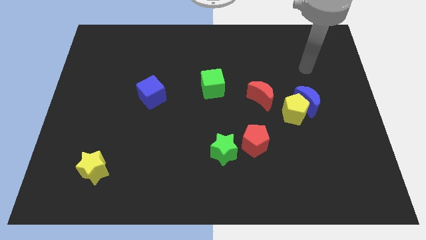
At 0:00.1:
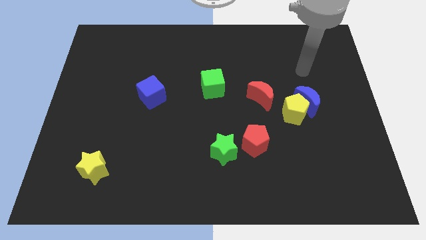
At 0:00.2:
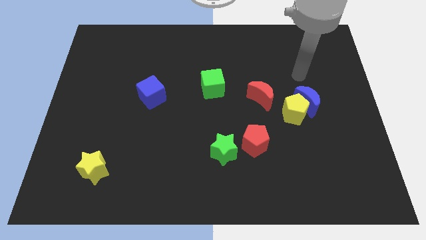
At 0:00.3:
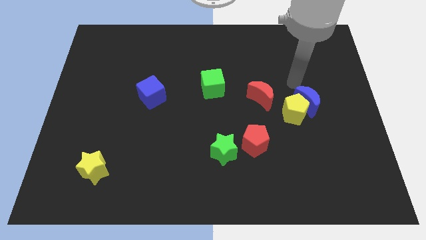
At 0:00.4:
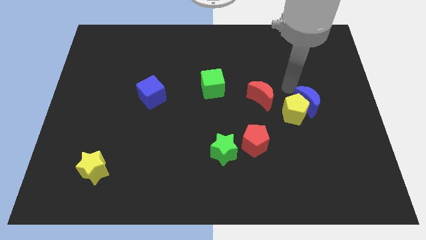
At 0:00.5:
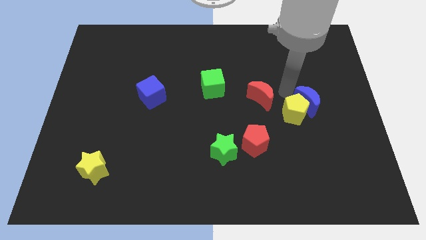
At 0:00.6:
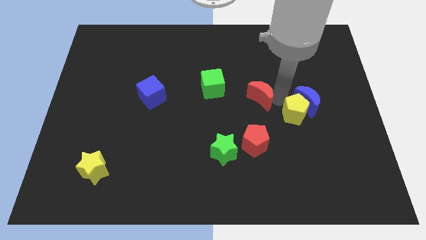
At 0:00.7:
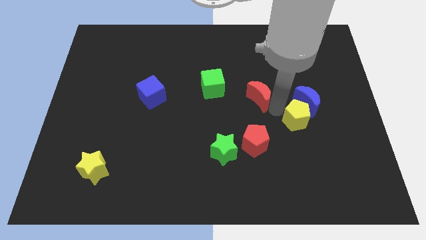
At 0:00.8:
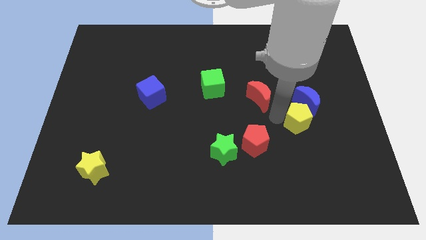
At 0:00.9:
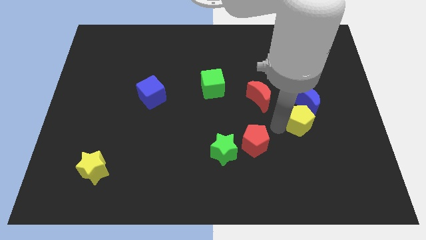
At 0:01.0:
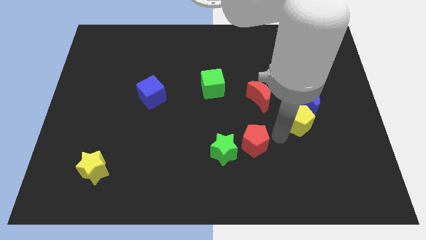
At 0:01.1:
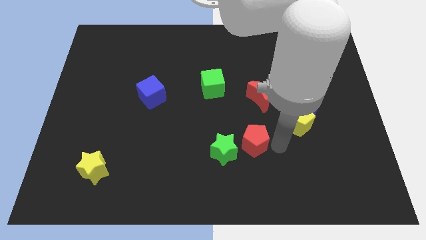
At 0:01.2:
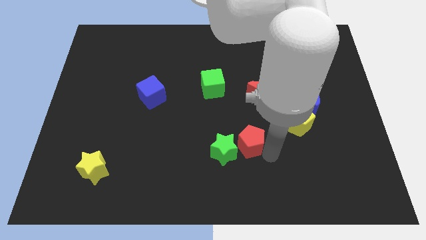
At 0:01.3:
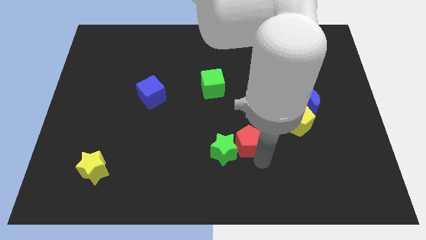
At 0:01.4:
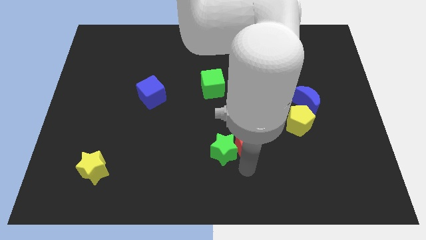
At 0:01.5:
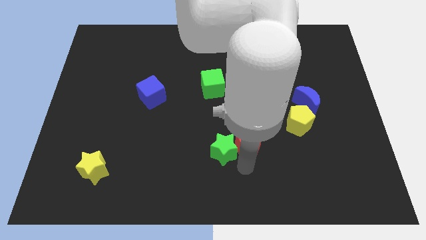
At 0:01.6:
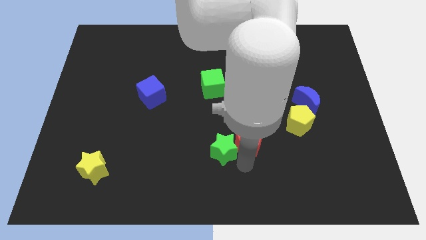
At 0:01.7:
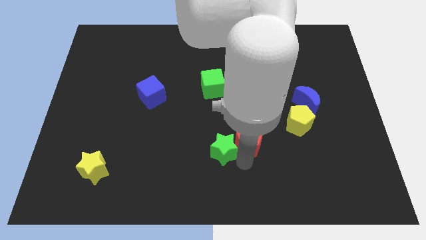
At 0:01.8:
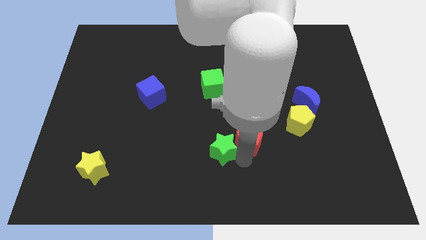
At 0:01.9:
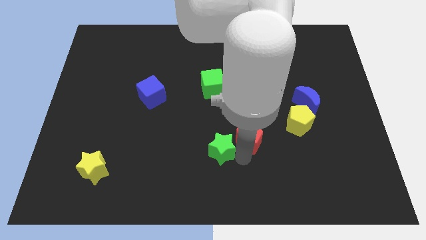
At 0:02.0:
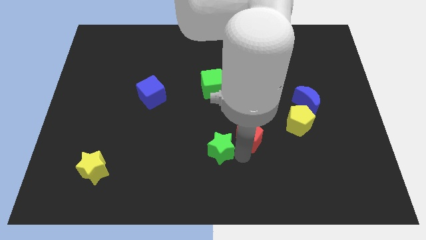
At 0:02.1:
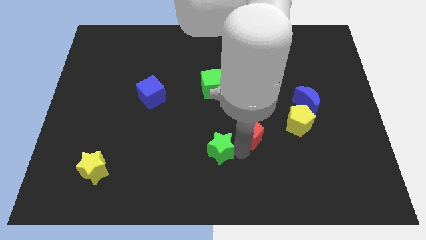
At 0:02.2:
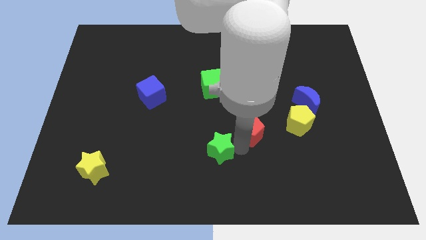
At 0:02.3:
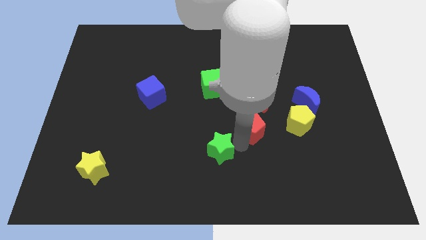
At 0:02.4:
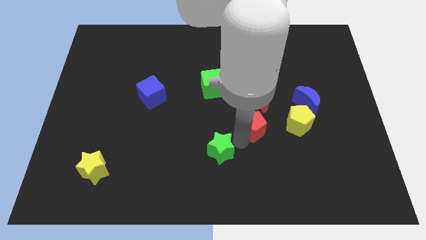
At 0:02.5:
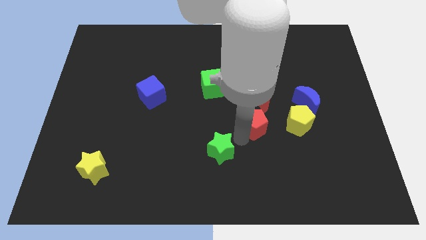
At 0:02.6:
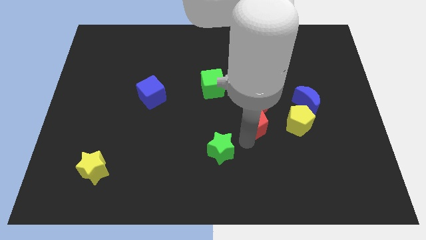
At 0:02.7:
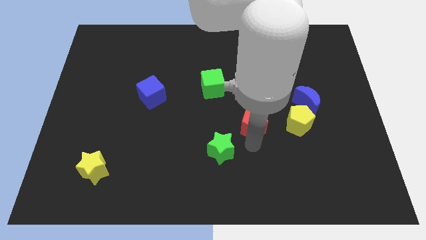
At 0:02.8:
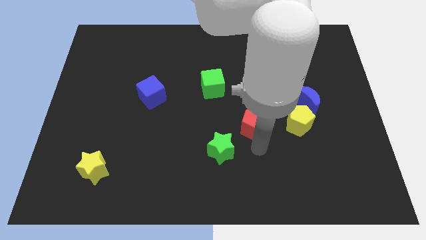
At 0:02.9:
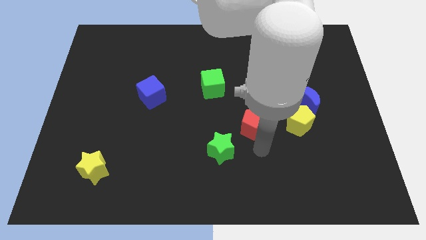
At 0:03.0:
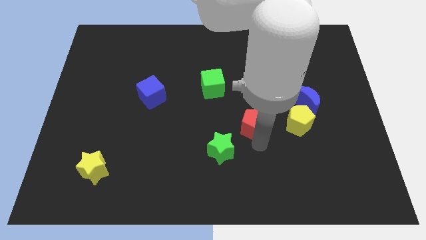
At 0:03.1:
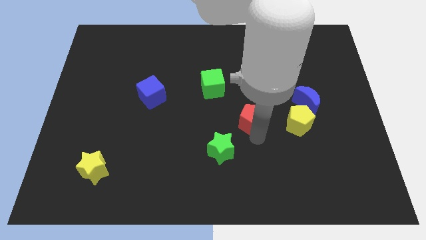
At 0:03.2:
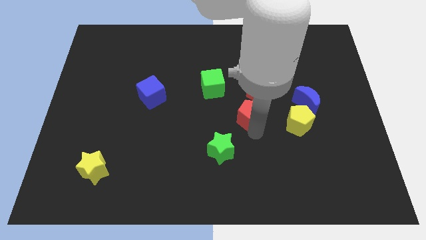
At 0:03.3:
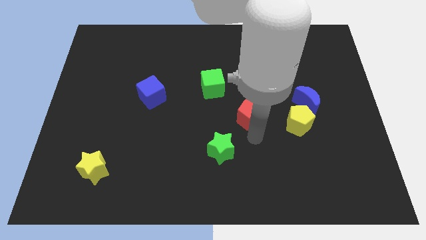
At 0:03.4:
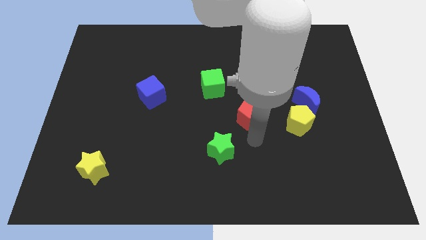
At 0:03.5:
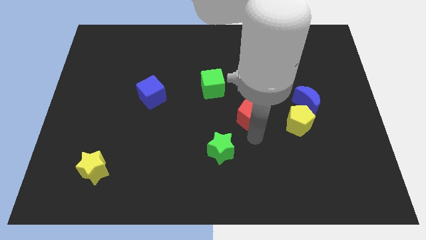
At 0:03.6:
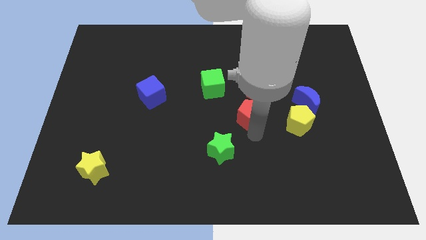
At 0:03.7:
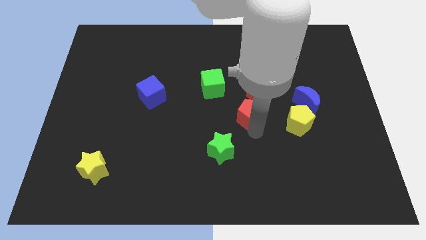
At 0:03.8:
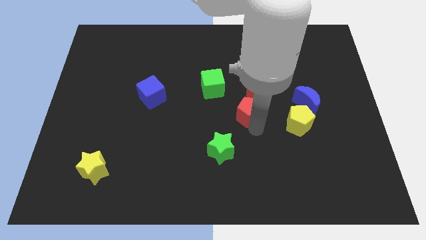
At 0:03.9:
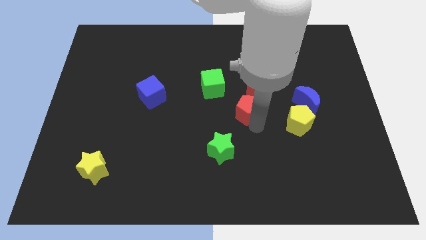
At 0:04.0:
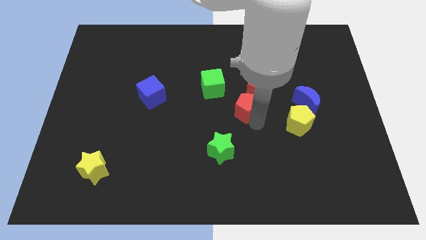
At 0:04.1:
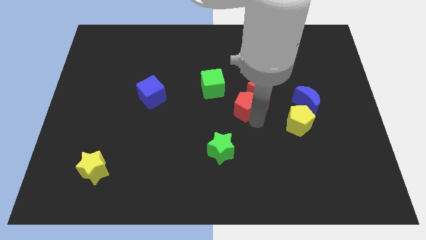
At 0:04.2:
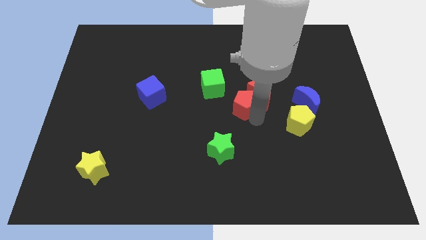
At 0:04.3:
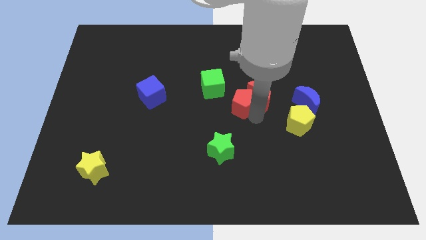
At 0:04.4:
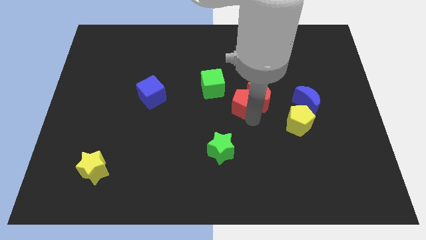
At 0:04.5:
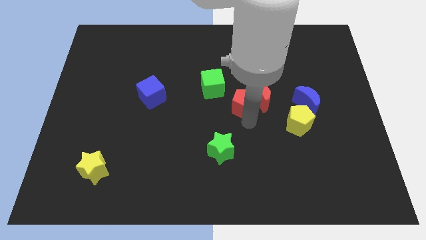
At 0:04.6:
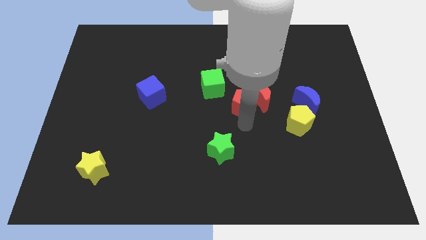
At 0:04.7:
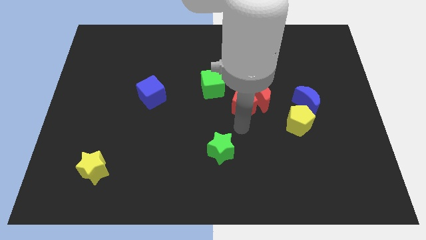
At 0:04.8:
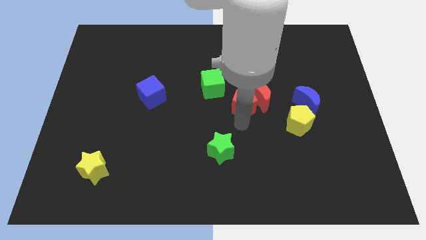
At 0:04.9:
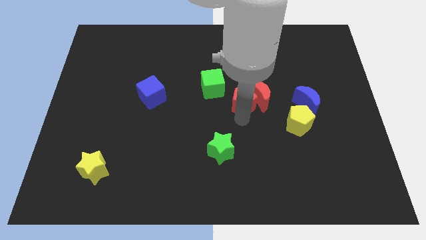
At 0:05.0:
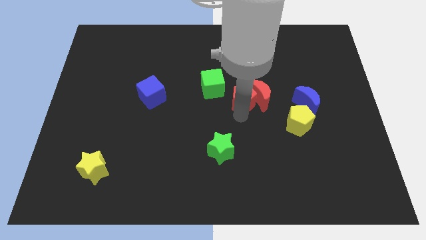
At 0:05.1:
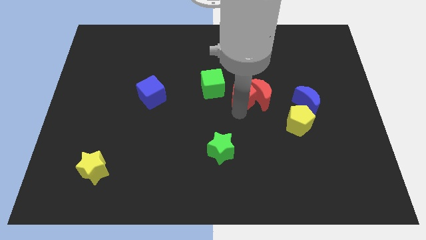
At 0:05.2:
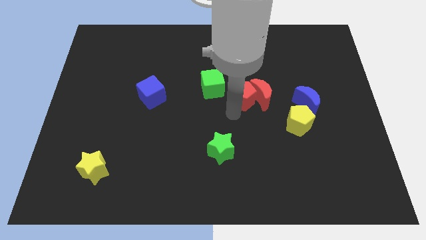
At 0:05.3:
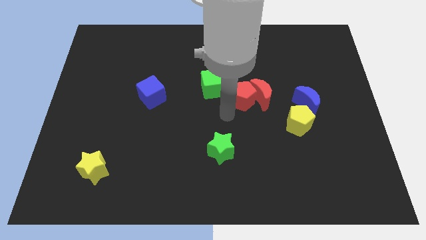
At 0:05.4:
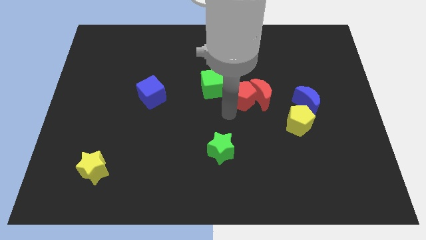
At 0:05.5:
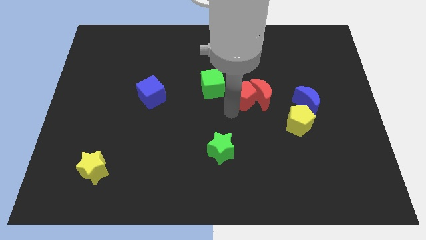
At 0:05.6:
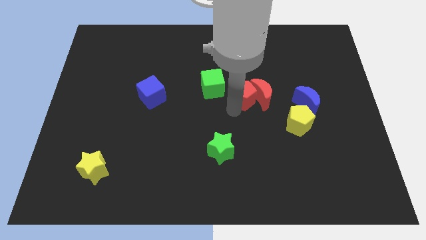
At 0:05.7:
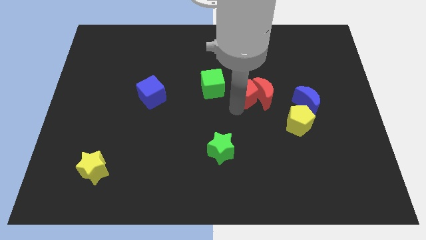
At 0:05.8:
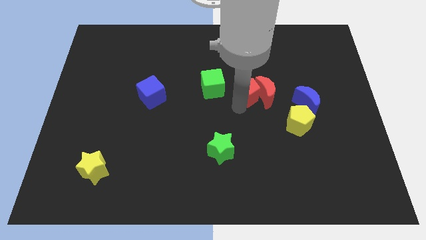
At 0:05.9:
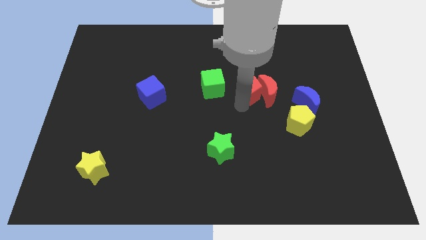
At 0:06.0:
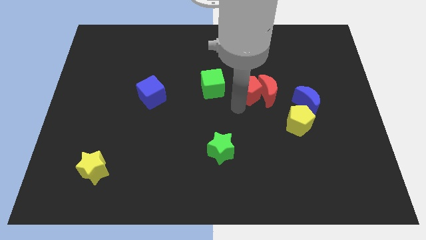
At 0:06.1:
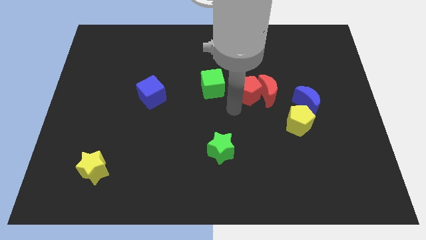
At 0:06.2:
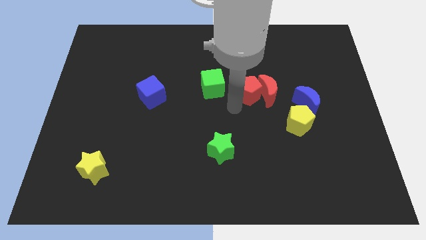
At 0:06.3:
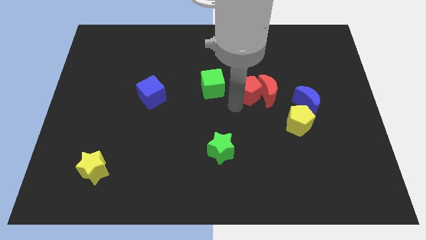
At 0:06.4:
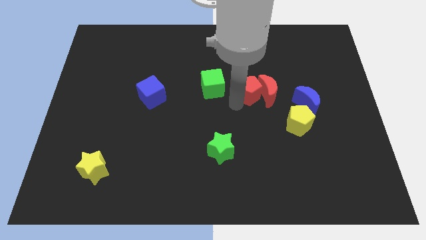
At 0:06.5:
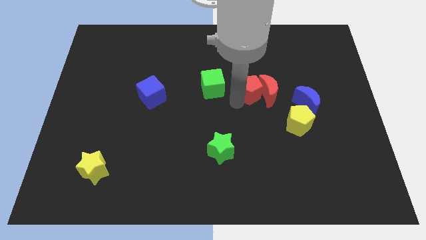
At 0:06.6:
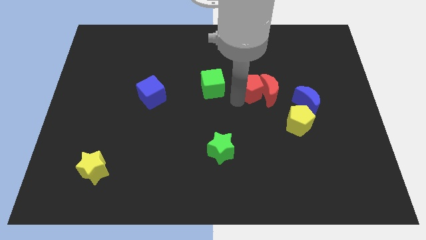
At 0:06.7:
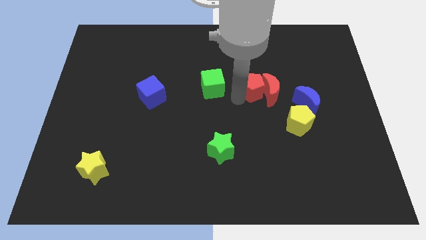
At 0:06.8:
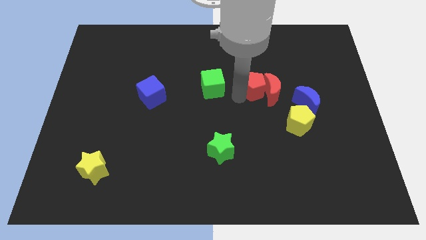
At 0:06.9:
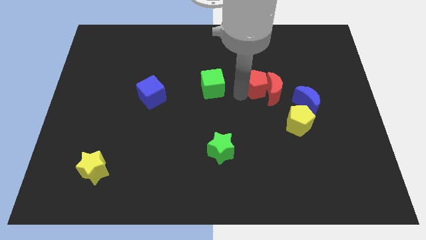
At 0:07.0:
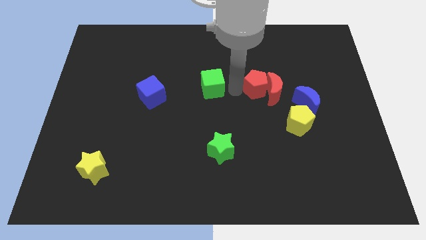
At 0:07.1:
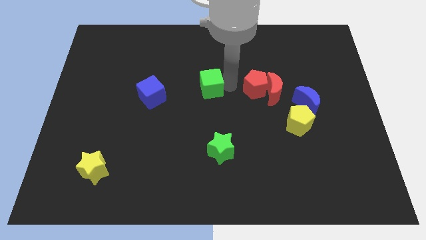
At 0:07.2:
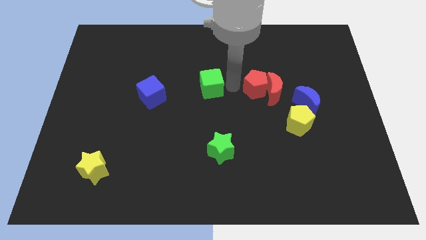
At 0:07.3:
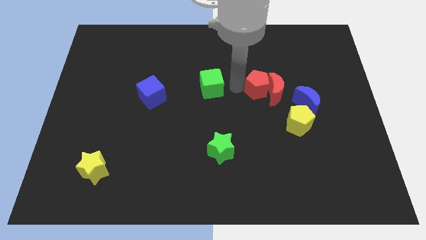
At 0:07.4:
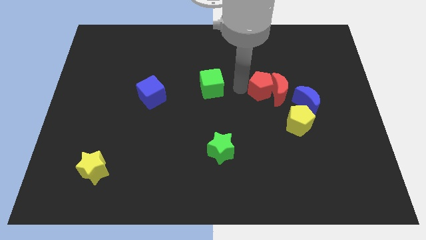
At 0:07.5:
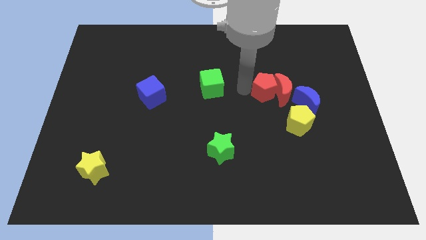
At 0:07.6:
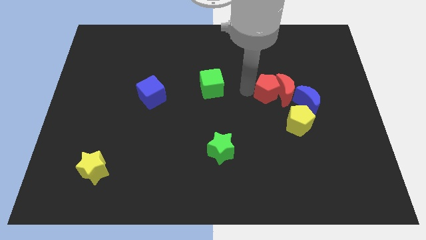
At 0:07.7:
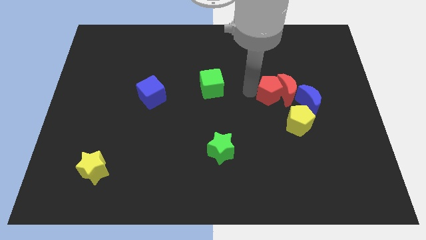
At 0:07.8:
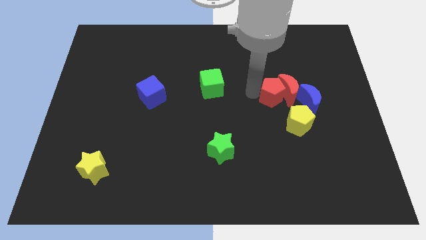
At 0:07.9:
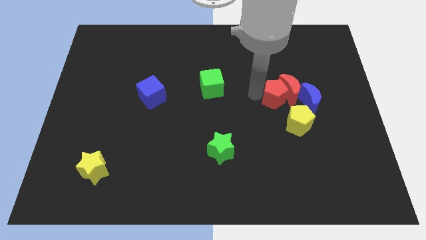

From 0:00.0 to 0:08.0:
slide the red pentagon to the top of the yellow pentagon

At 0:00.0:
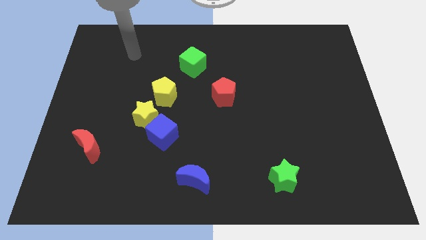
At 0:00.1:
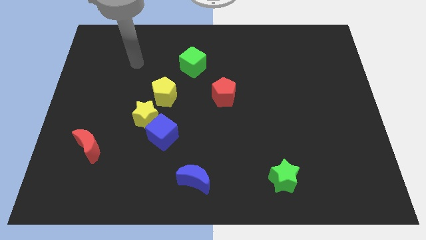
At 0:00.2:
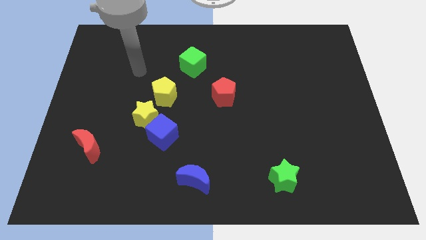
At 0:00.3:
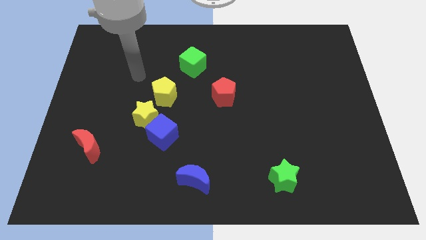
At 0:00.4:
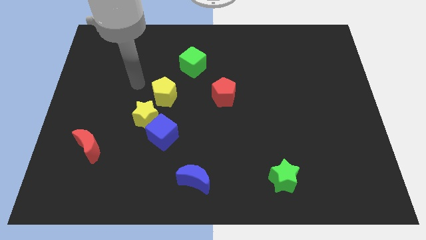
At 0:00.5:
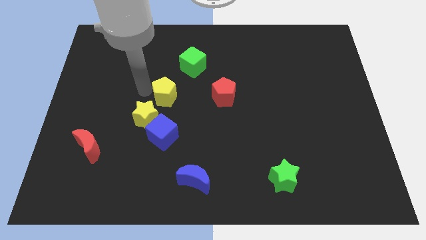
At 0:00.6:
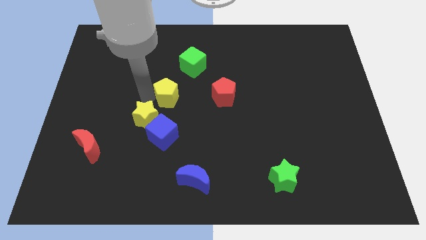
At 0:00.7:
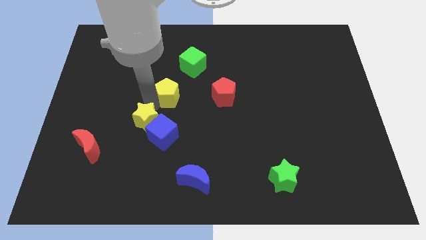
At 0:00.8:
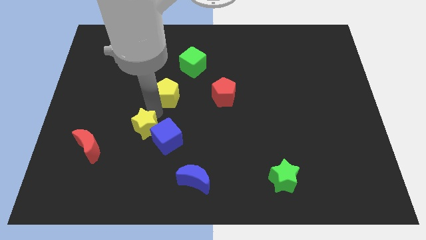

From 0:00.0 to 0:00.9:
put the blue cube diagonally up and to the left of the blue moon
